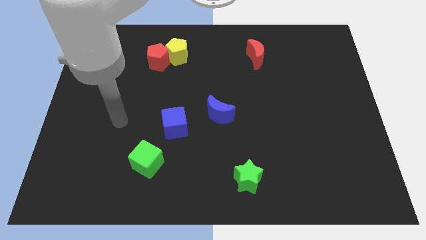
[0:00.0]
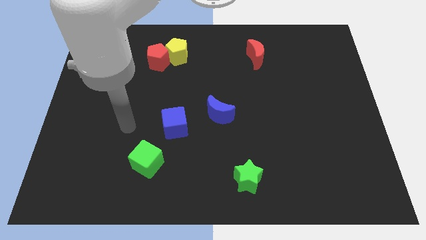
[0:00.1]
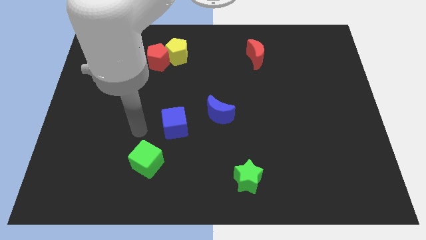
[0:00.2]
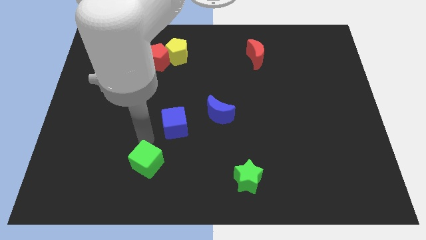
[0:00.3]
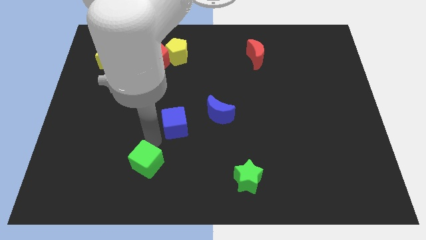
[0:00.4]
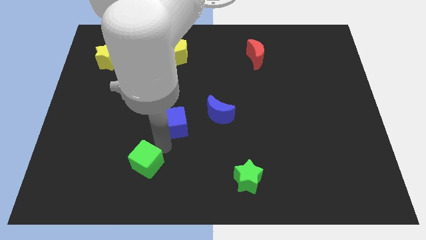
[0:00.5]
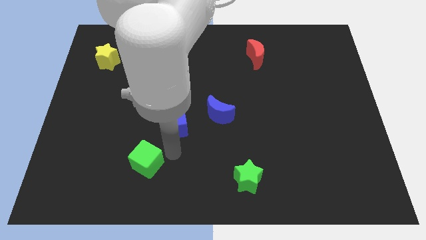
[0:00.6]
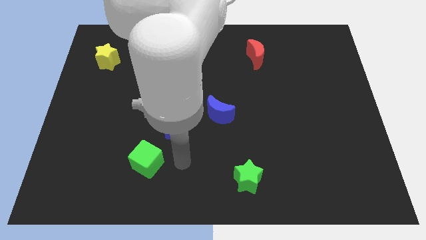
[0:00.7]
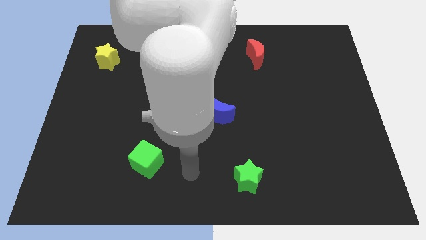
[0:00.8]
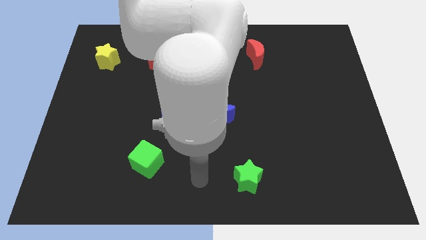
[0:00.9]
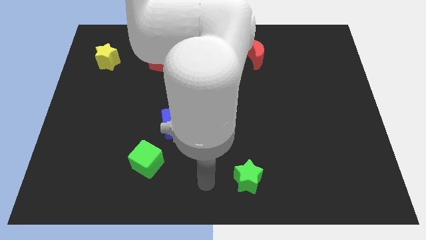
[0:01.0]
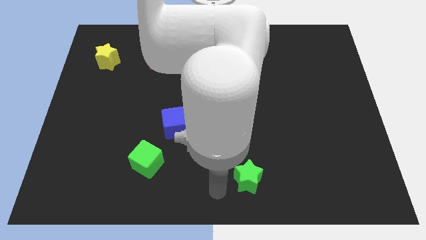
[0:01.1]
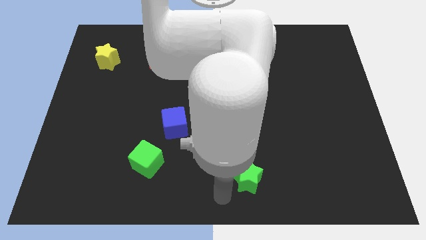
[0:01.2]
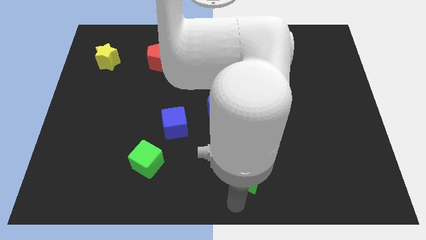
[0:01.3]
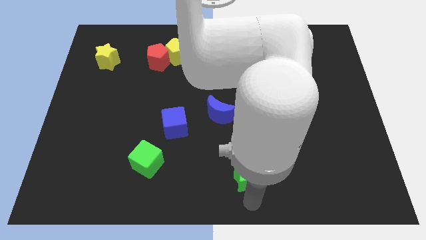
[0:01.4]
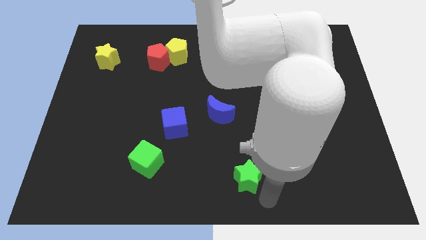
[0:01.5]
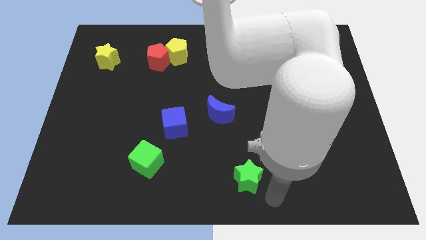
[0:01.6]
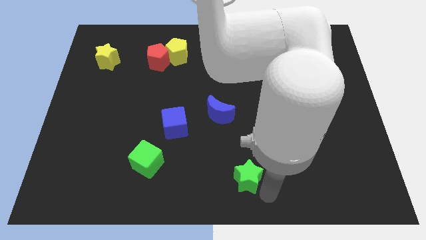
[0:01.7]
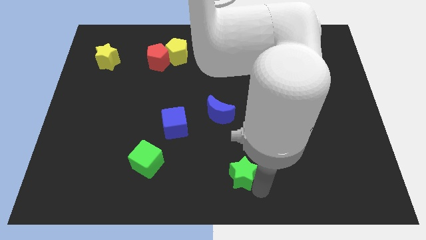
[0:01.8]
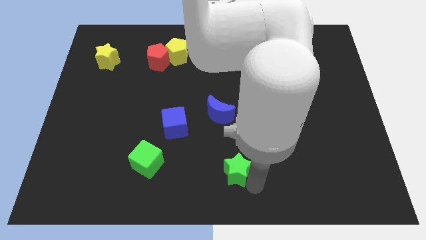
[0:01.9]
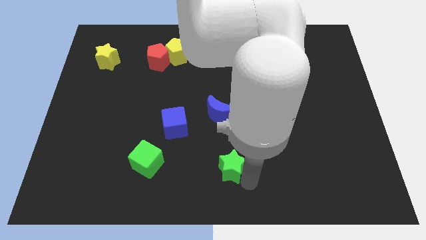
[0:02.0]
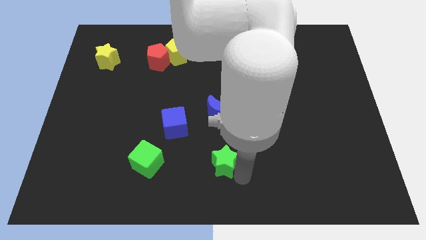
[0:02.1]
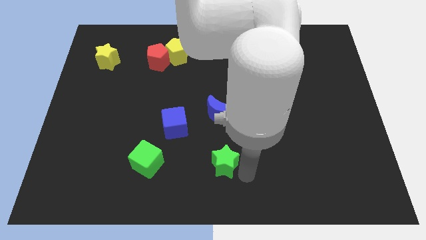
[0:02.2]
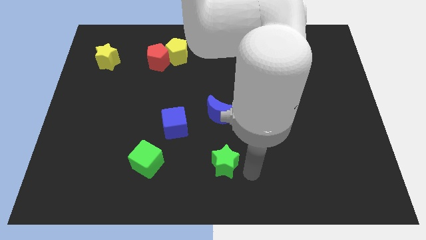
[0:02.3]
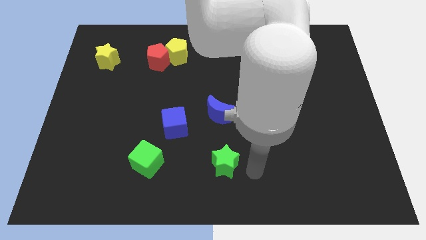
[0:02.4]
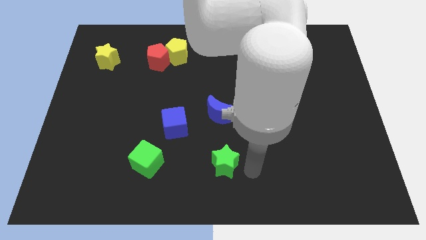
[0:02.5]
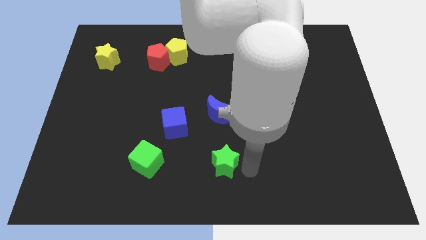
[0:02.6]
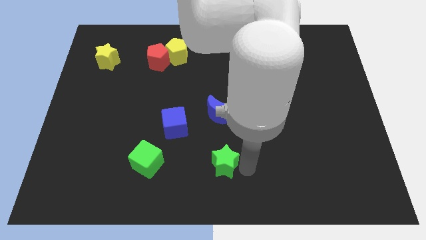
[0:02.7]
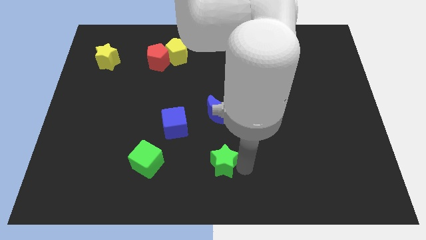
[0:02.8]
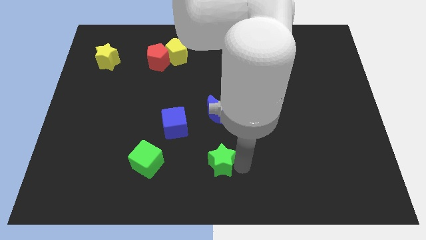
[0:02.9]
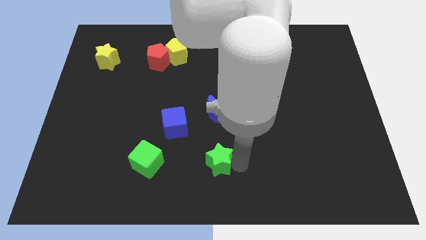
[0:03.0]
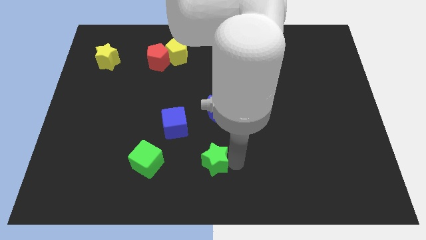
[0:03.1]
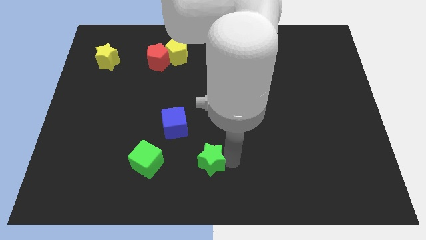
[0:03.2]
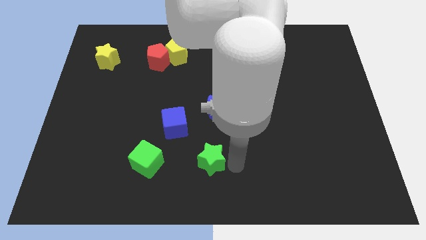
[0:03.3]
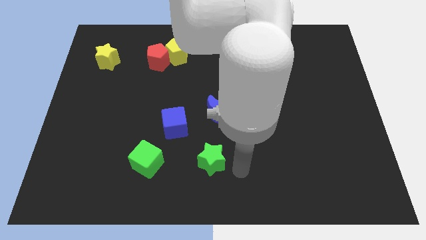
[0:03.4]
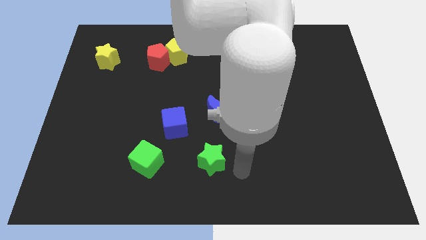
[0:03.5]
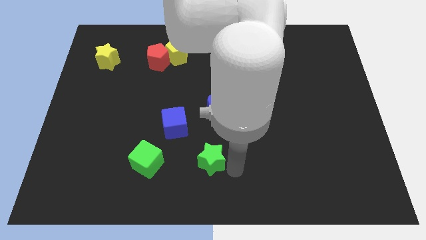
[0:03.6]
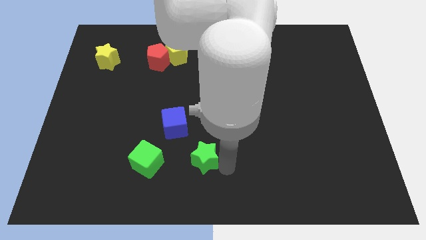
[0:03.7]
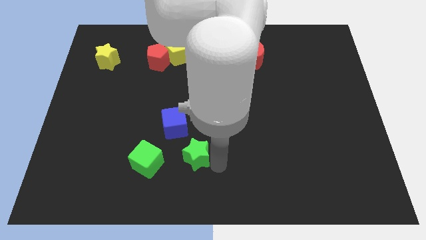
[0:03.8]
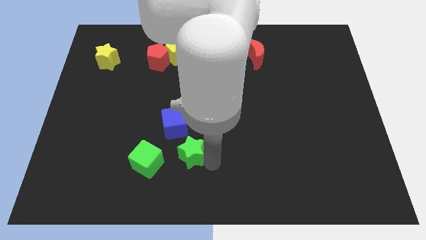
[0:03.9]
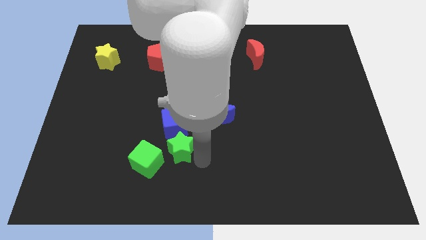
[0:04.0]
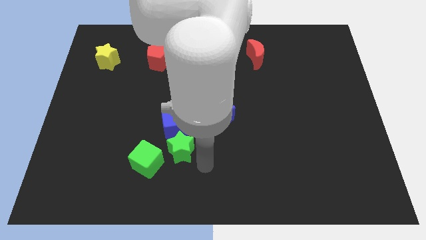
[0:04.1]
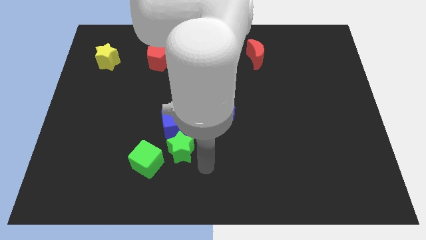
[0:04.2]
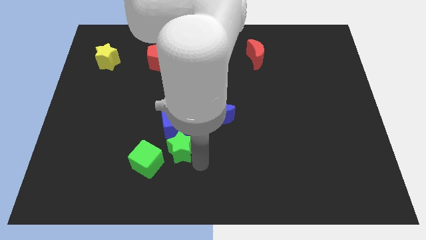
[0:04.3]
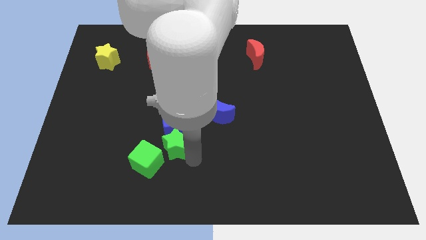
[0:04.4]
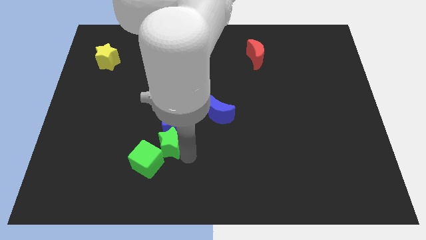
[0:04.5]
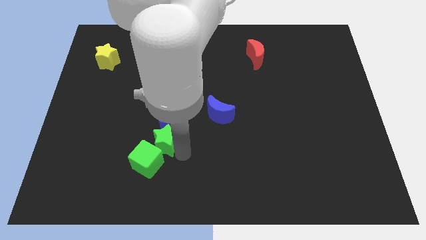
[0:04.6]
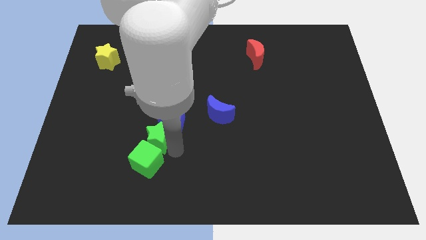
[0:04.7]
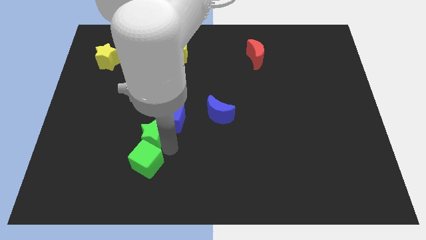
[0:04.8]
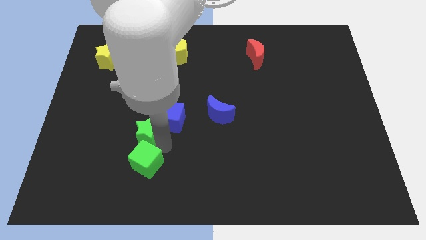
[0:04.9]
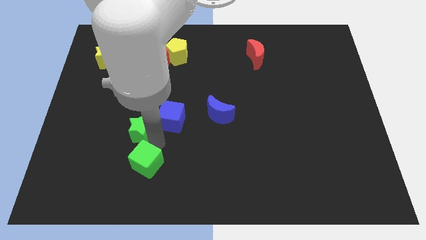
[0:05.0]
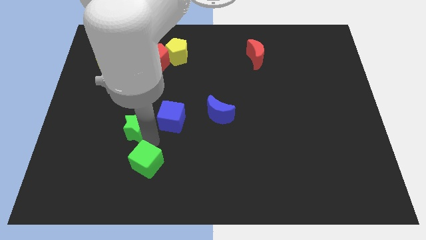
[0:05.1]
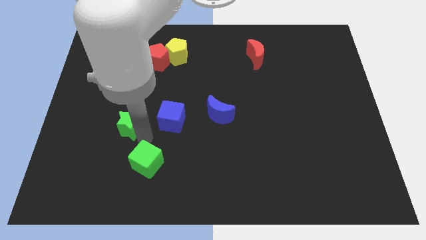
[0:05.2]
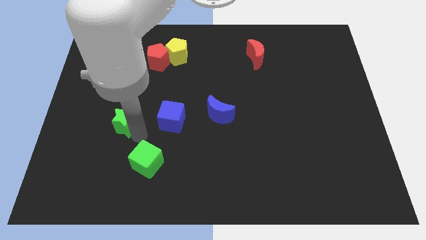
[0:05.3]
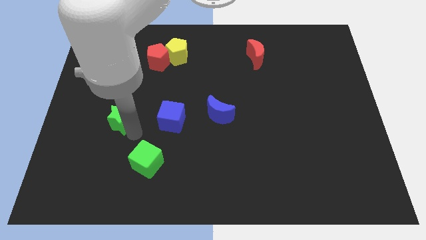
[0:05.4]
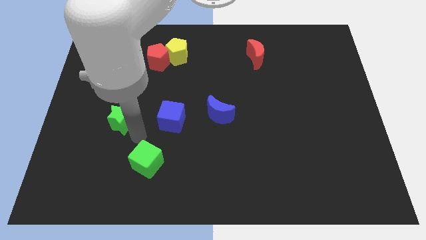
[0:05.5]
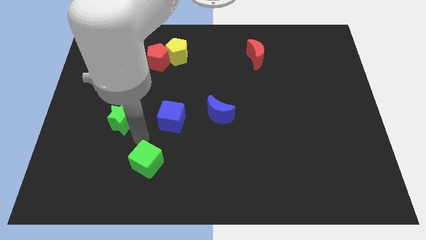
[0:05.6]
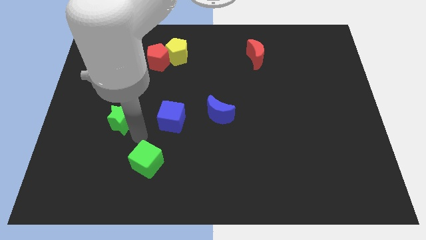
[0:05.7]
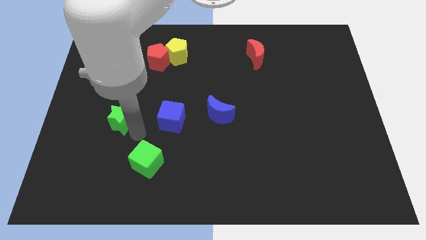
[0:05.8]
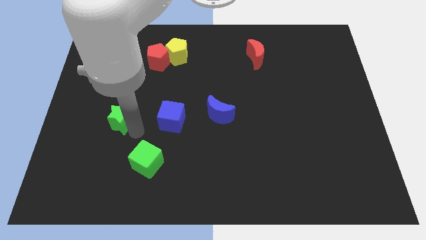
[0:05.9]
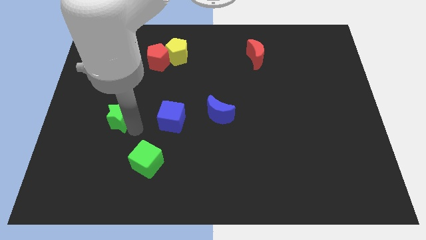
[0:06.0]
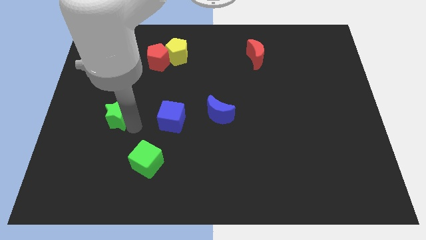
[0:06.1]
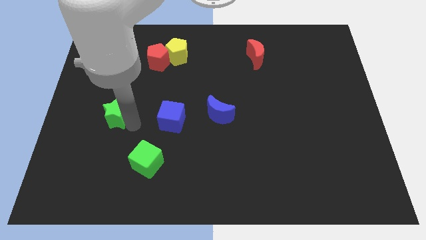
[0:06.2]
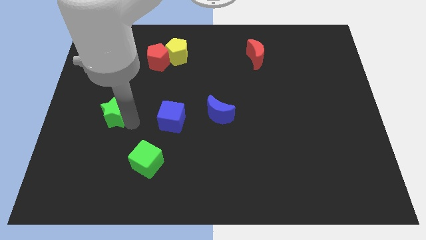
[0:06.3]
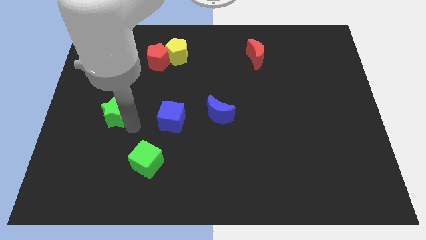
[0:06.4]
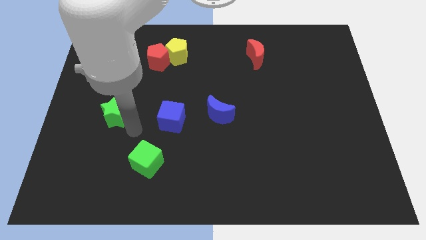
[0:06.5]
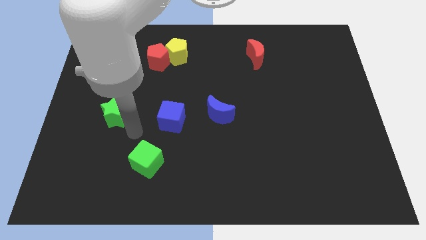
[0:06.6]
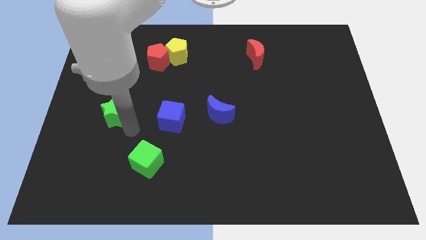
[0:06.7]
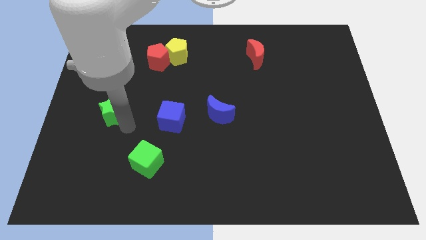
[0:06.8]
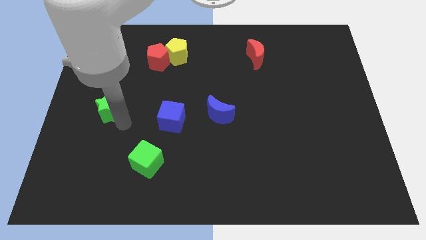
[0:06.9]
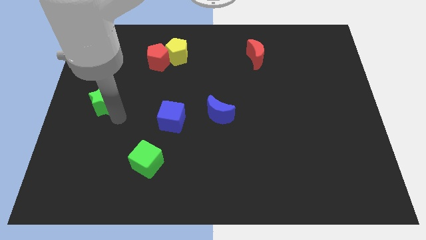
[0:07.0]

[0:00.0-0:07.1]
slide the green star to the center left

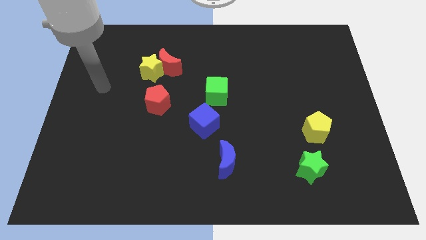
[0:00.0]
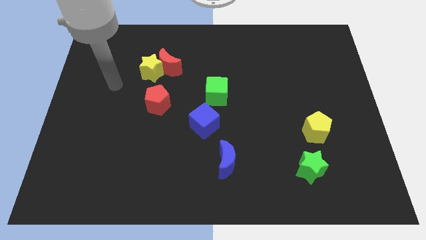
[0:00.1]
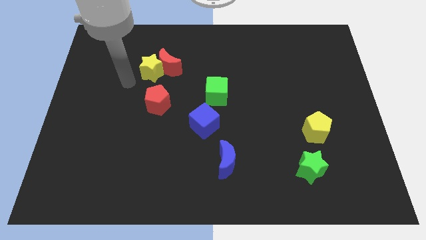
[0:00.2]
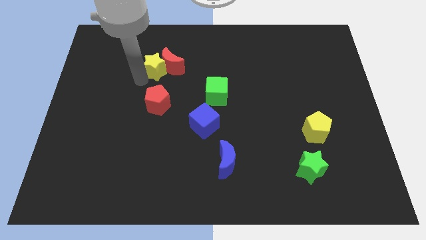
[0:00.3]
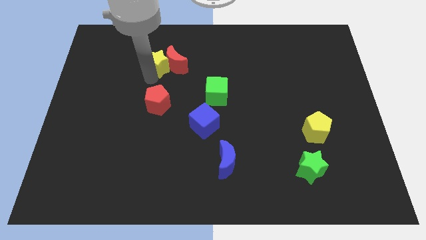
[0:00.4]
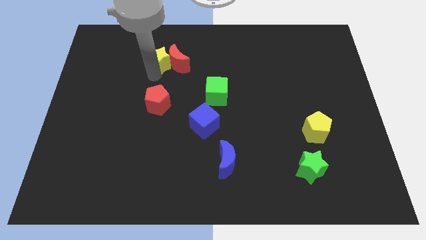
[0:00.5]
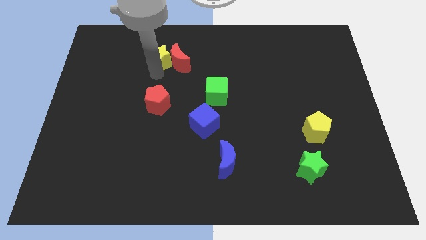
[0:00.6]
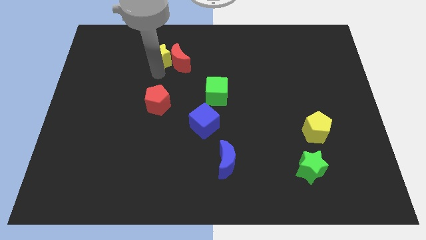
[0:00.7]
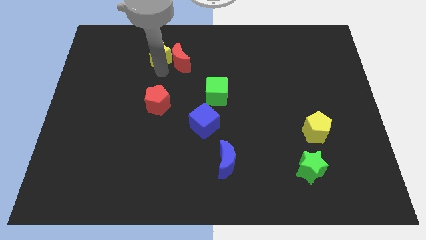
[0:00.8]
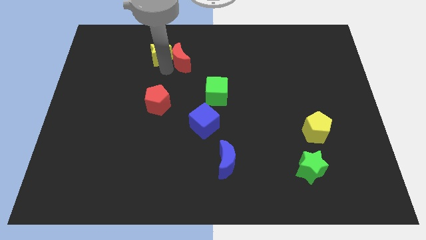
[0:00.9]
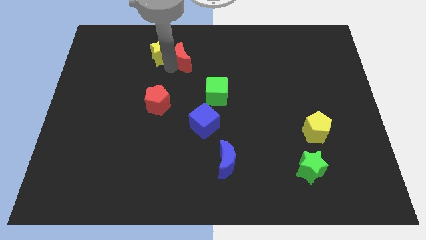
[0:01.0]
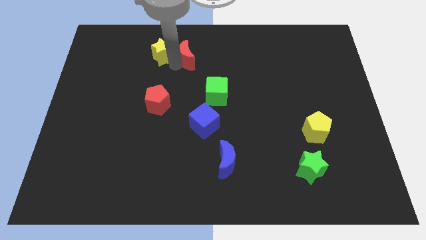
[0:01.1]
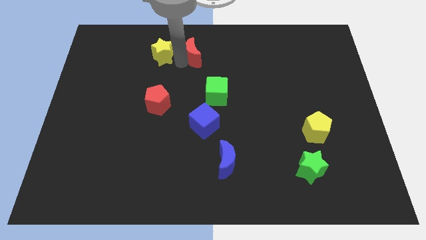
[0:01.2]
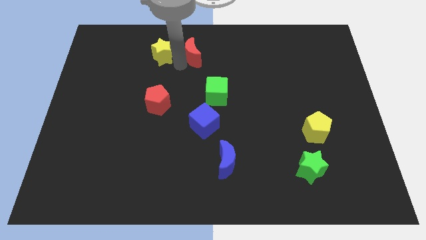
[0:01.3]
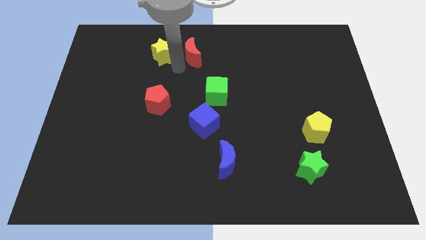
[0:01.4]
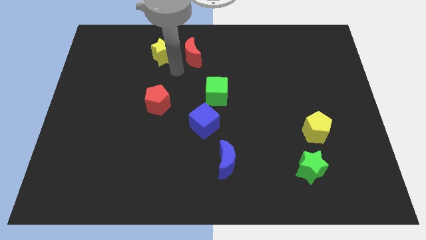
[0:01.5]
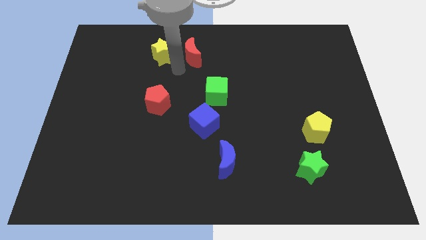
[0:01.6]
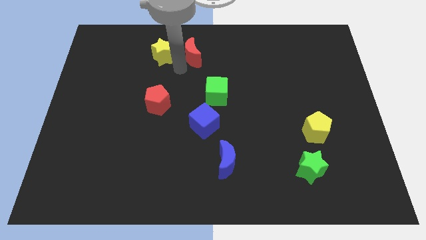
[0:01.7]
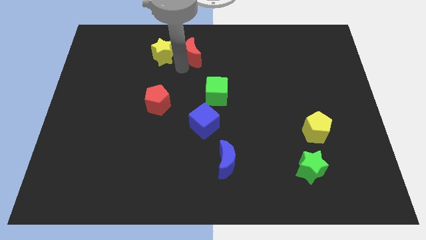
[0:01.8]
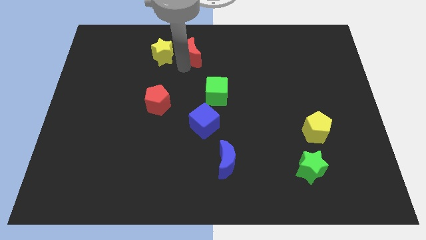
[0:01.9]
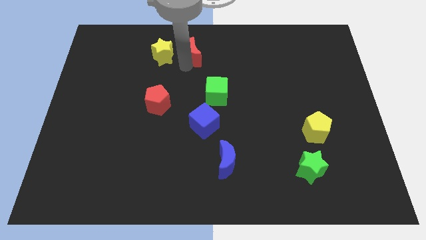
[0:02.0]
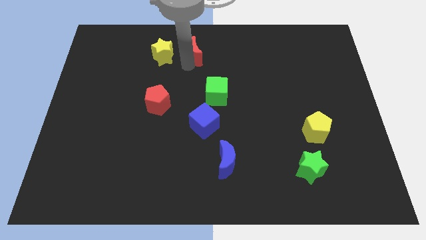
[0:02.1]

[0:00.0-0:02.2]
move the red moon to the towards your base
